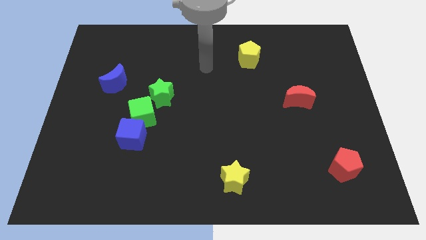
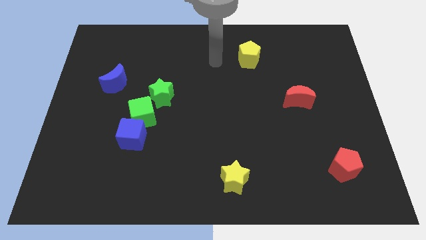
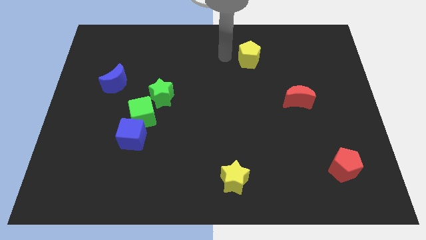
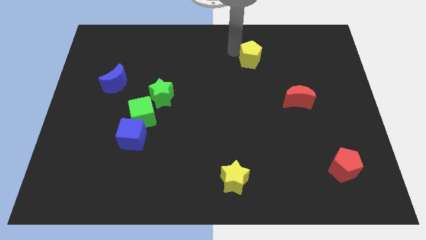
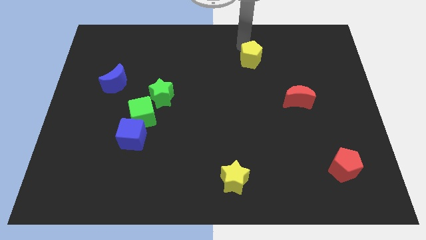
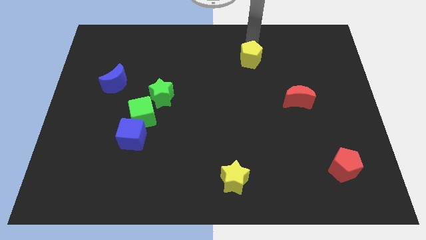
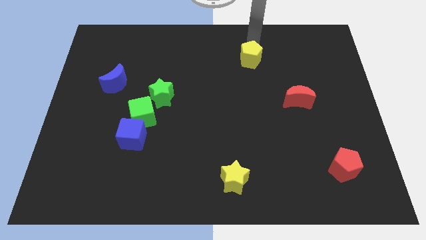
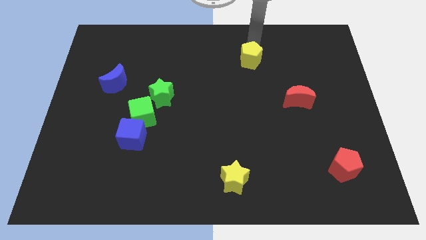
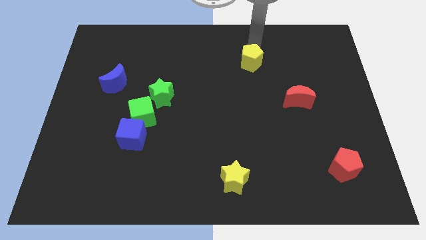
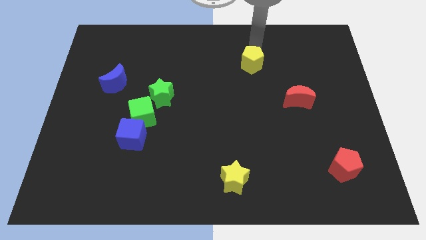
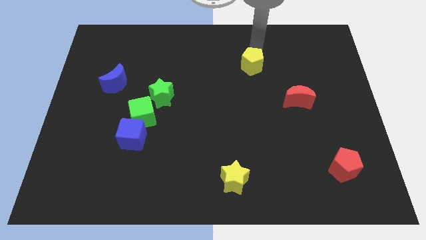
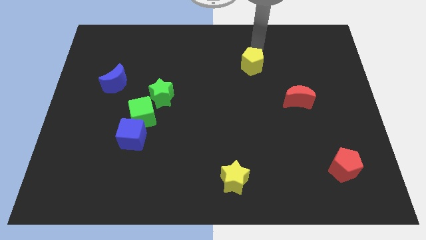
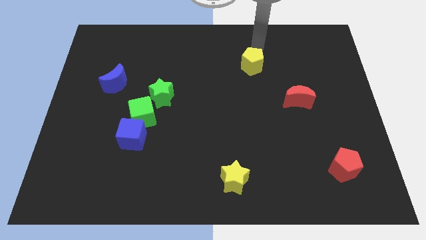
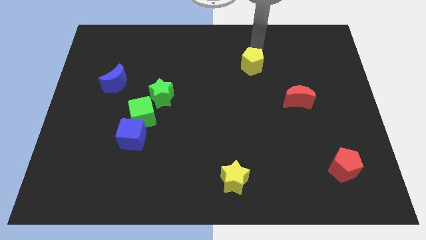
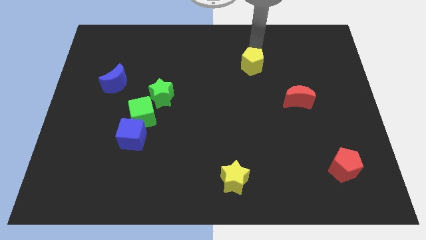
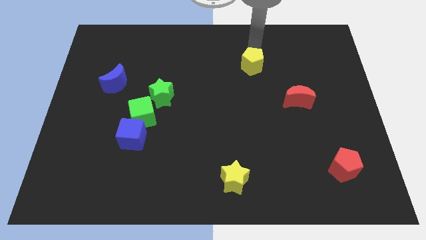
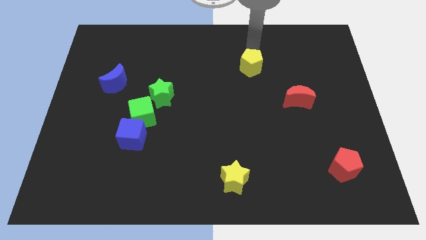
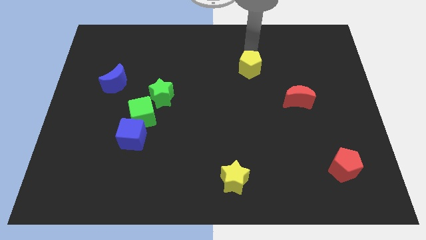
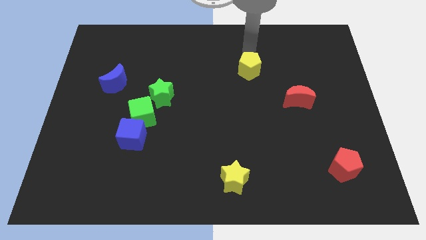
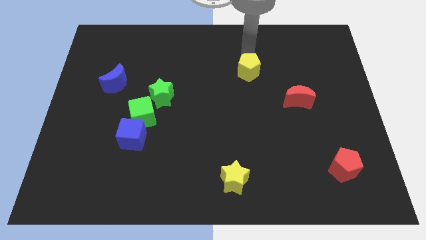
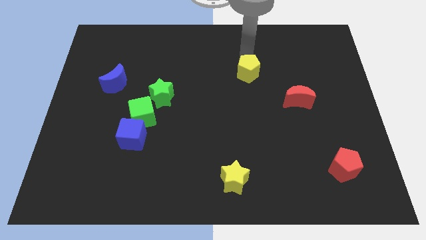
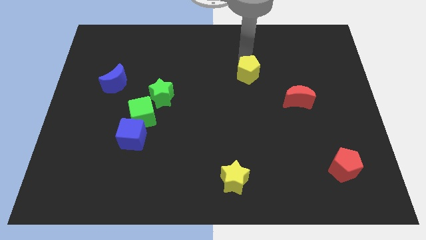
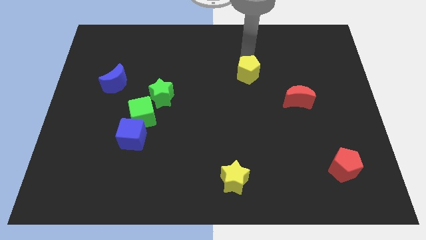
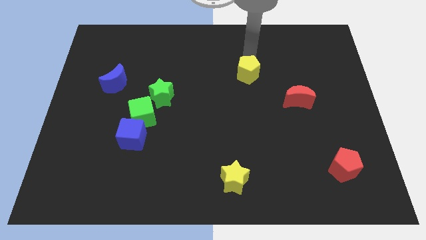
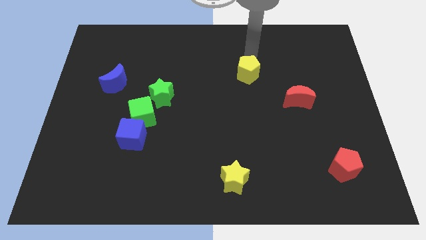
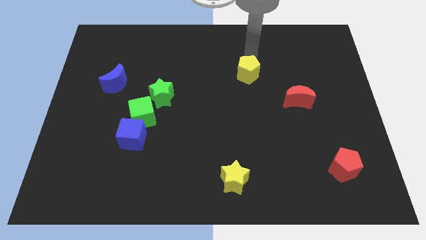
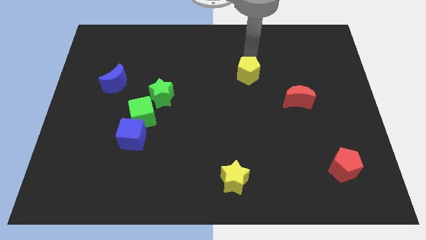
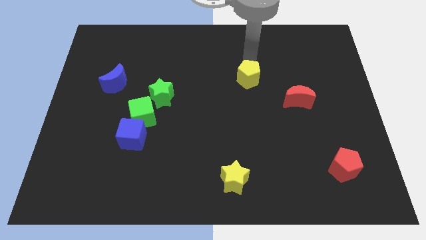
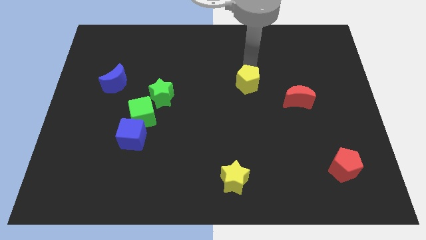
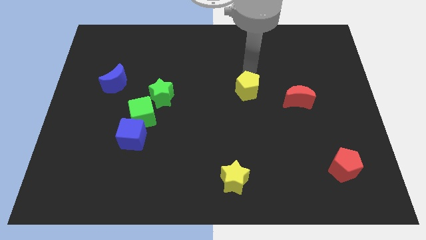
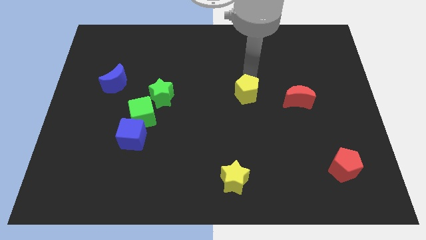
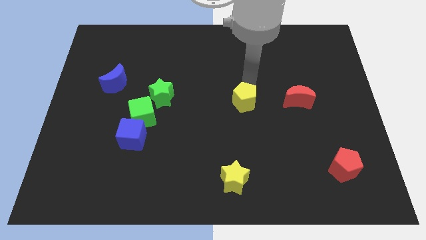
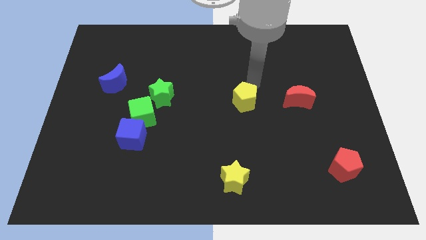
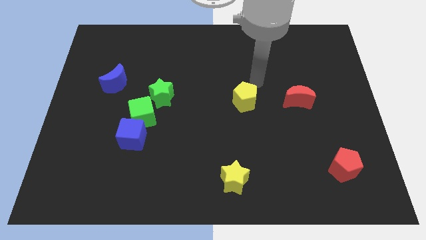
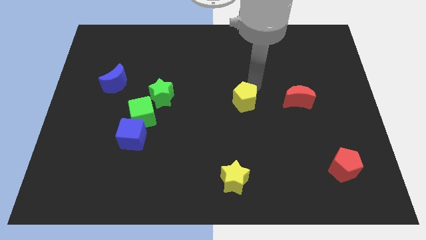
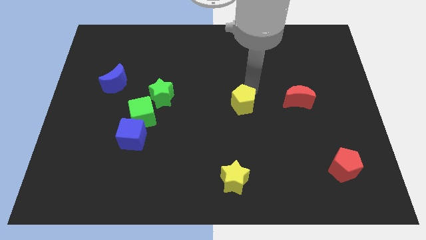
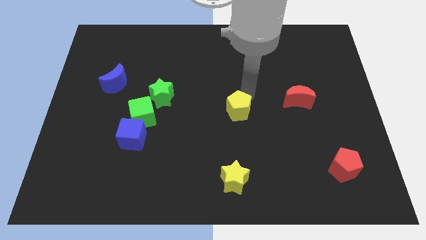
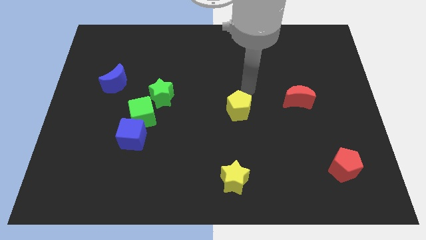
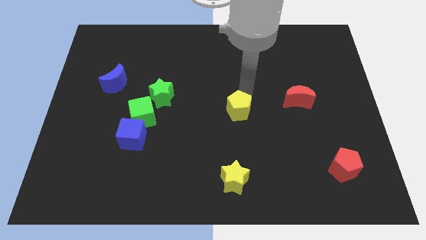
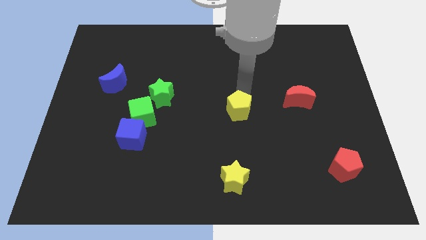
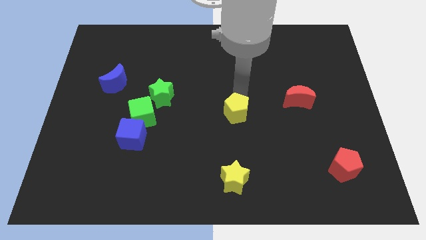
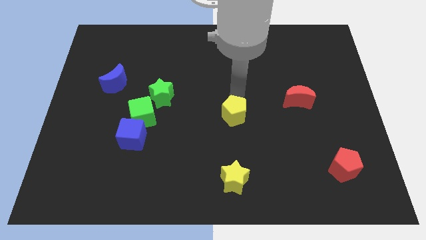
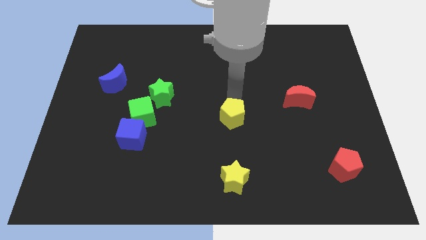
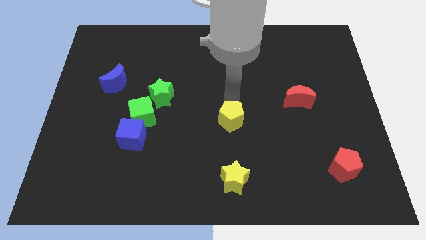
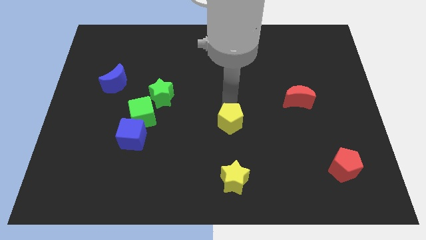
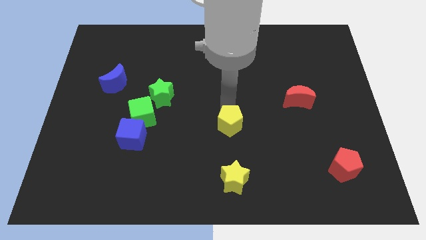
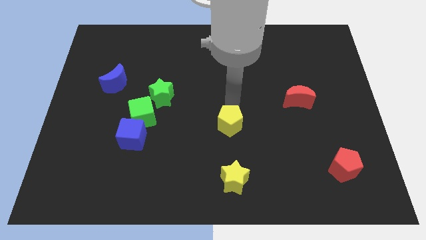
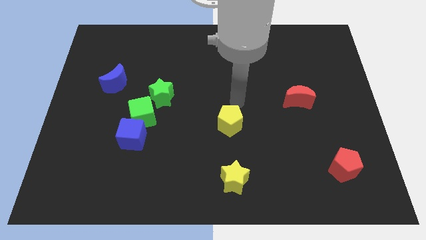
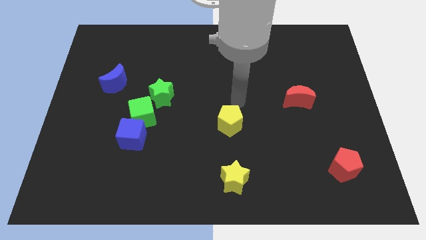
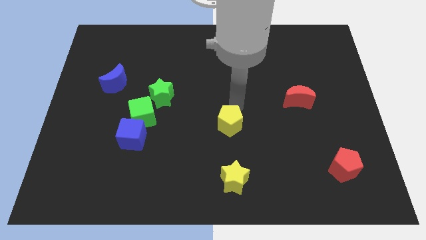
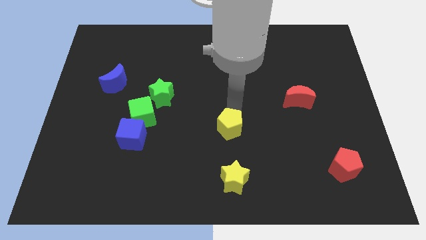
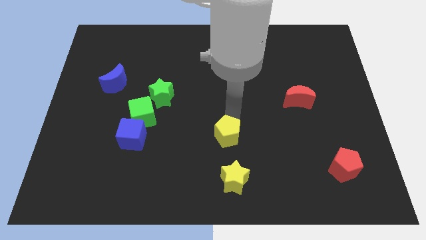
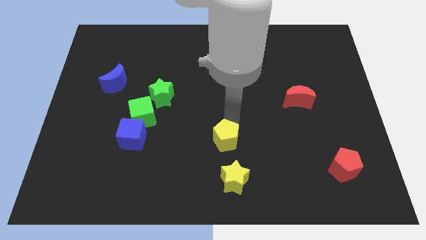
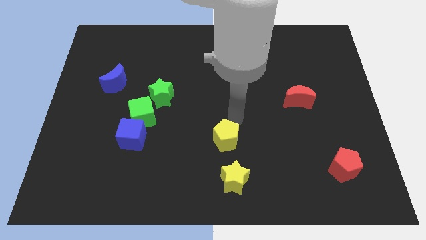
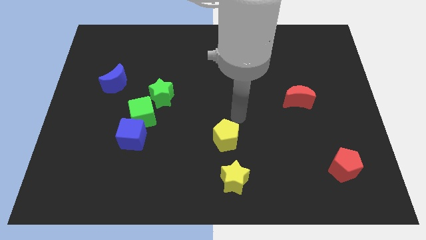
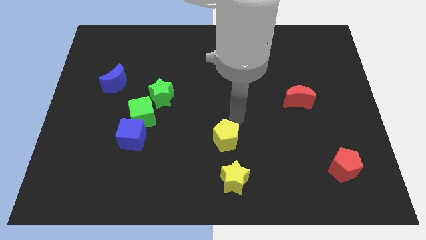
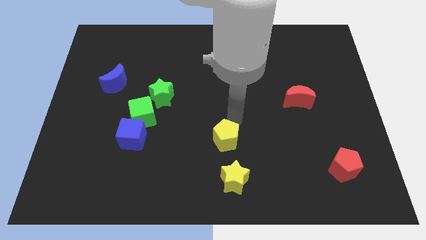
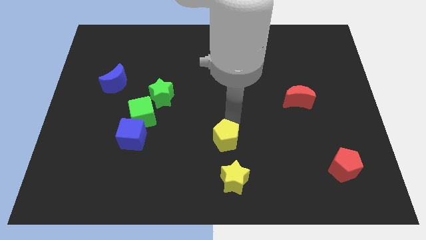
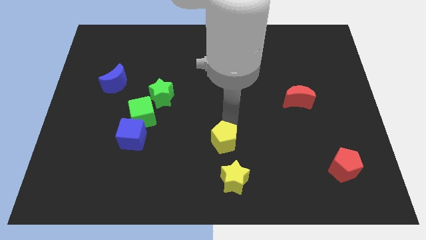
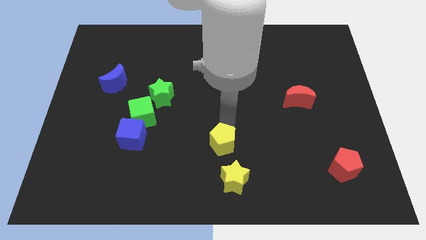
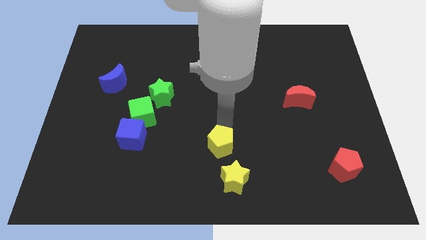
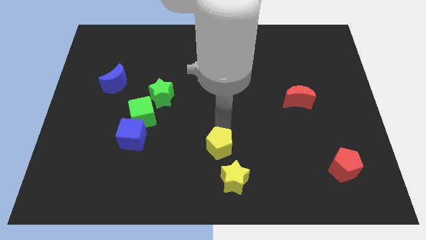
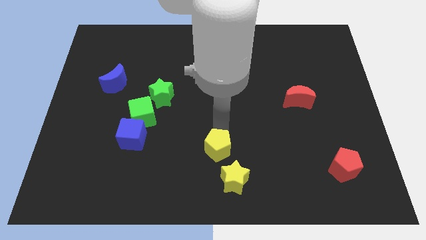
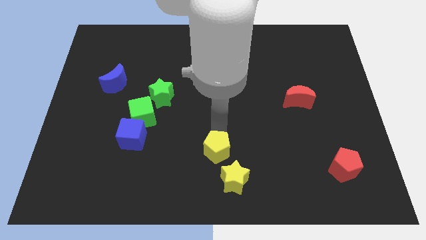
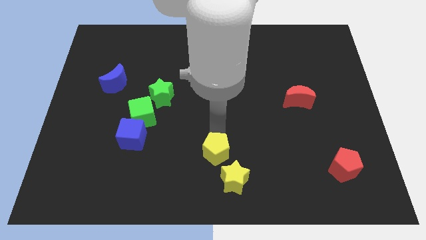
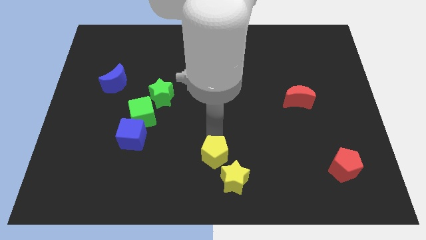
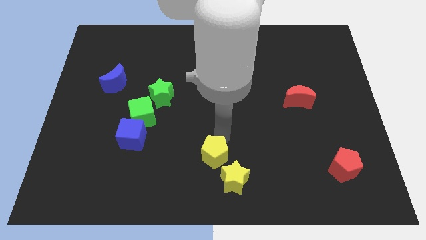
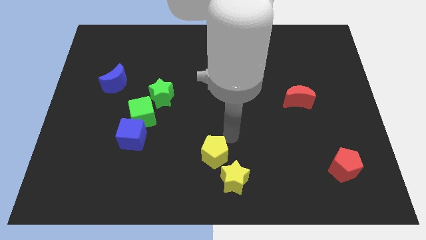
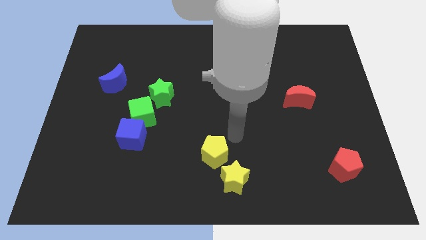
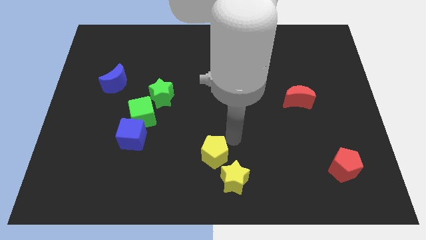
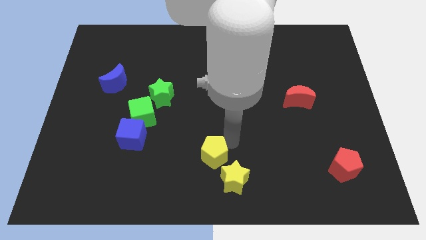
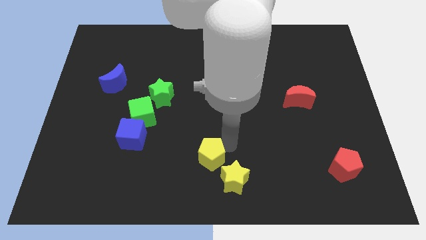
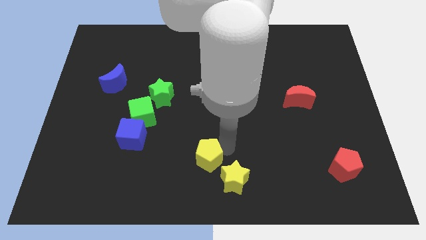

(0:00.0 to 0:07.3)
slide the yellow pentagon to the left side of the yellow star
